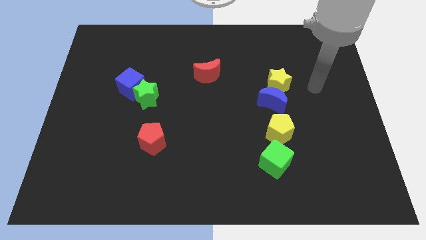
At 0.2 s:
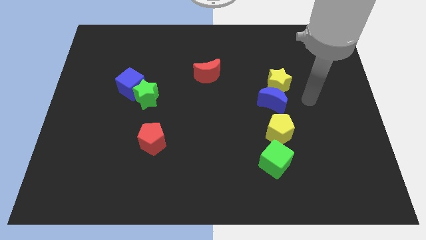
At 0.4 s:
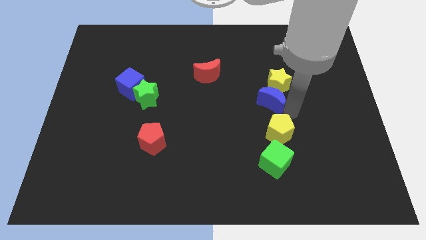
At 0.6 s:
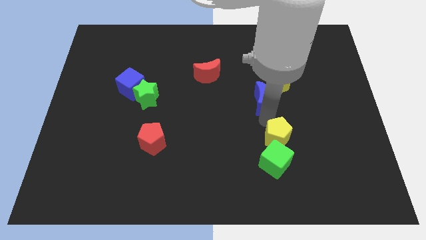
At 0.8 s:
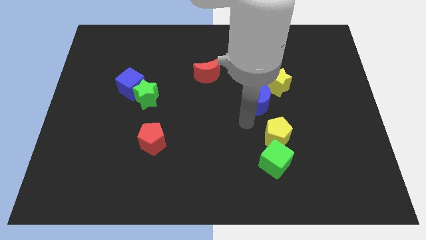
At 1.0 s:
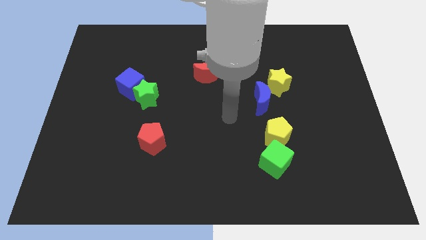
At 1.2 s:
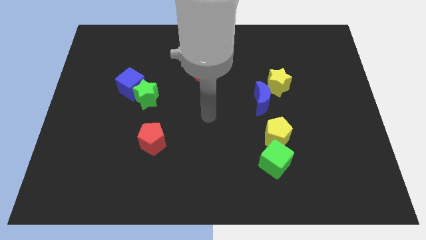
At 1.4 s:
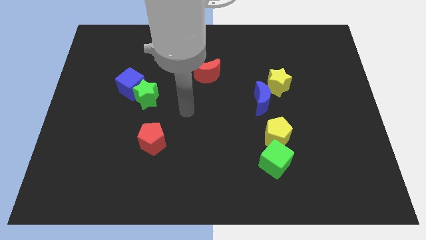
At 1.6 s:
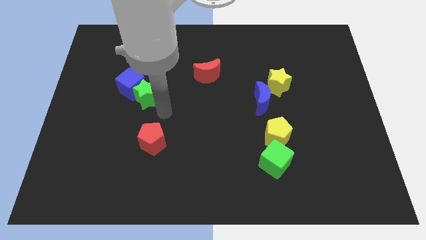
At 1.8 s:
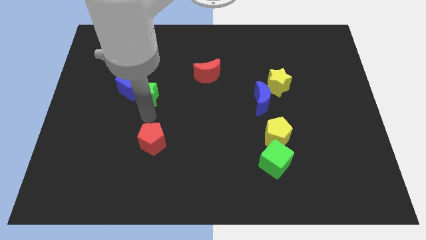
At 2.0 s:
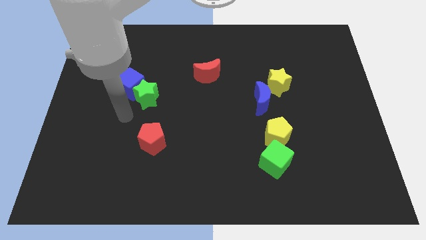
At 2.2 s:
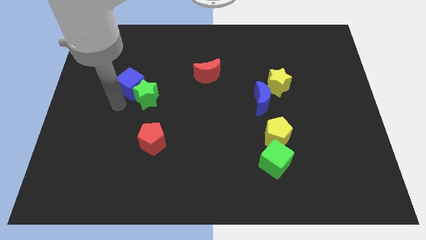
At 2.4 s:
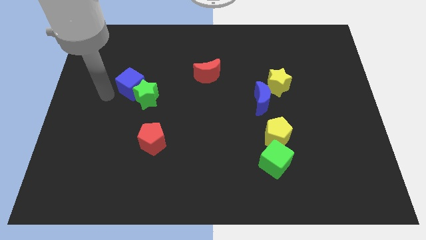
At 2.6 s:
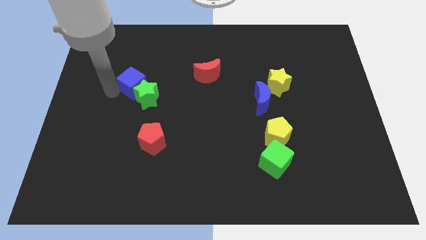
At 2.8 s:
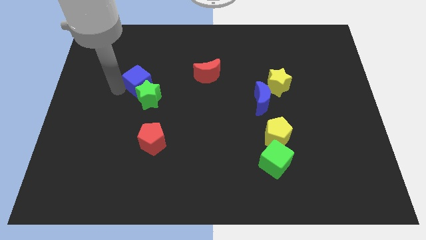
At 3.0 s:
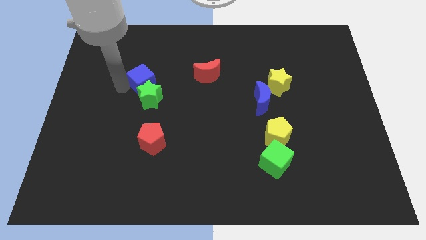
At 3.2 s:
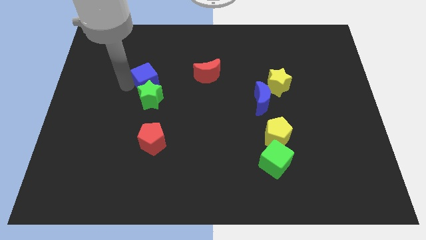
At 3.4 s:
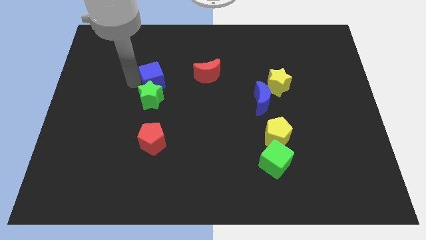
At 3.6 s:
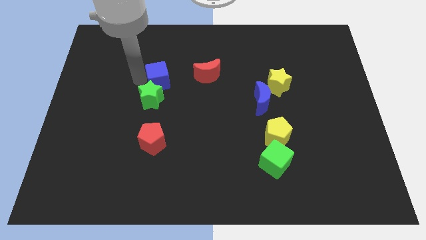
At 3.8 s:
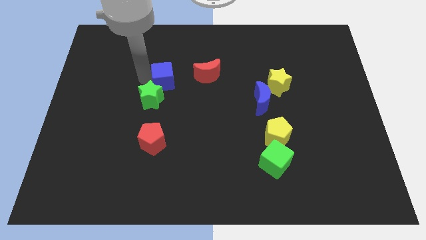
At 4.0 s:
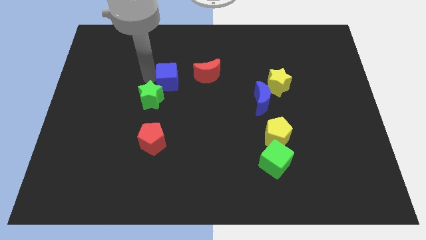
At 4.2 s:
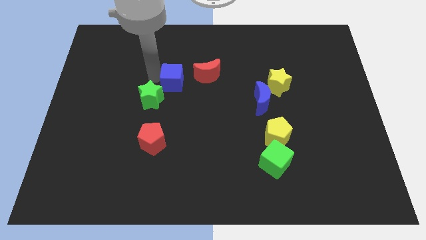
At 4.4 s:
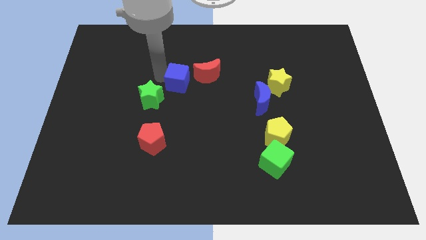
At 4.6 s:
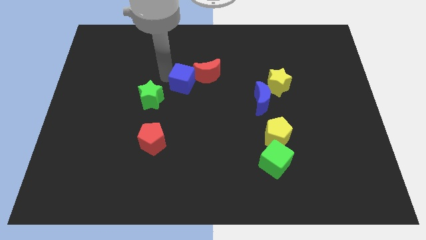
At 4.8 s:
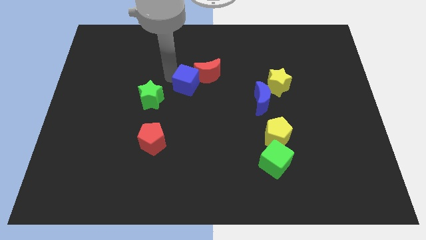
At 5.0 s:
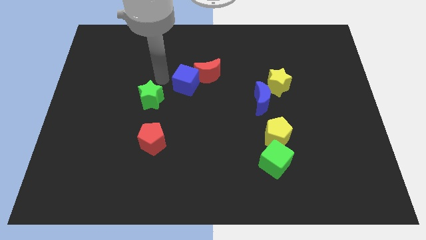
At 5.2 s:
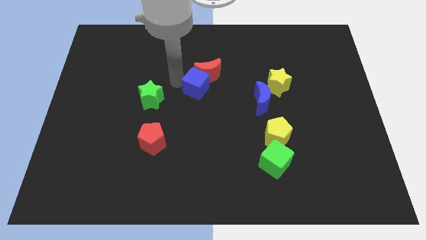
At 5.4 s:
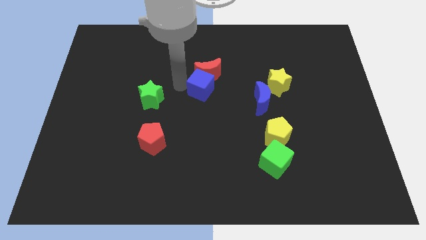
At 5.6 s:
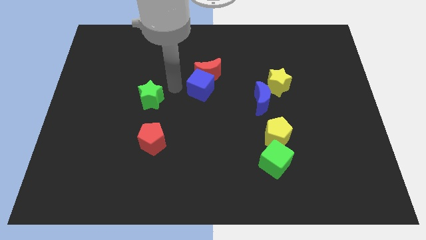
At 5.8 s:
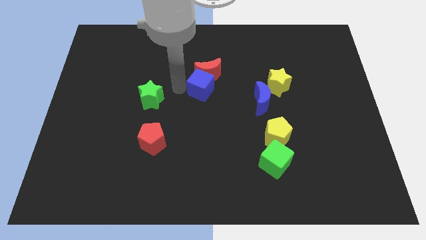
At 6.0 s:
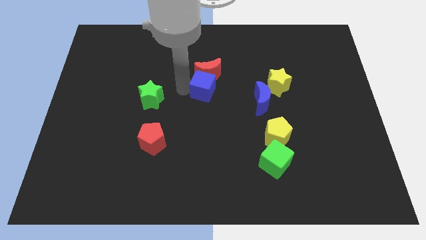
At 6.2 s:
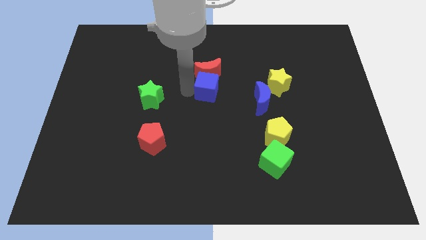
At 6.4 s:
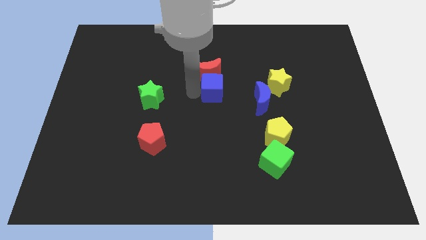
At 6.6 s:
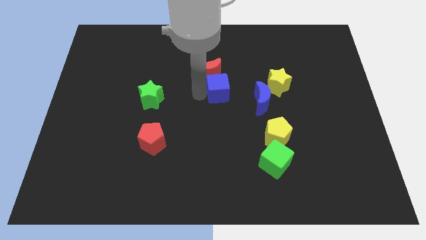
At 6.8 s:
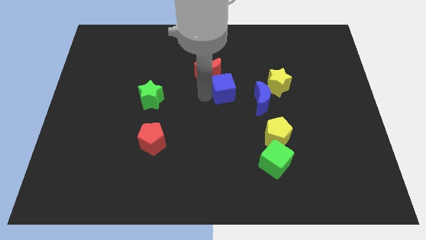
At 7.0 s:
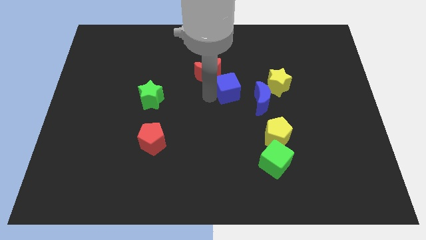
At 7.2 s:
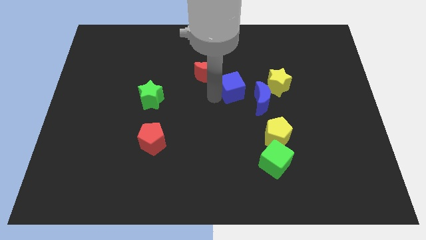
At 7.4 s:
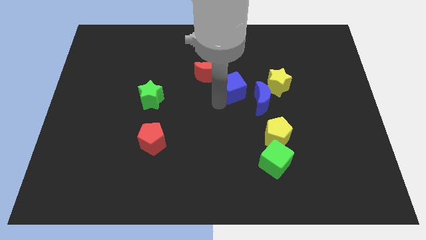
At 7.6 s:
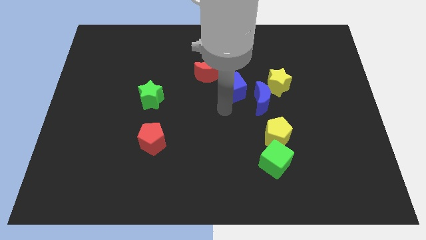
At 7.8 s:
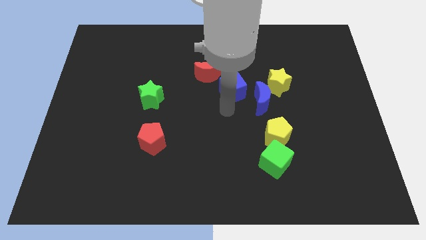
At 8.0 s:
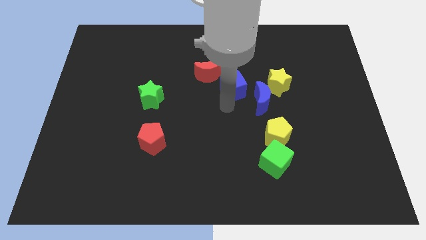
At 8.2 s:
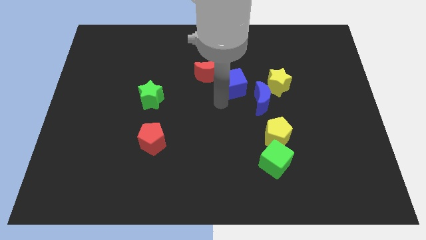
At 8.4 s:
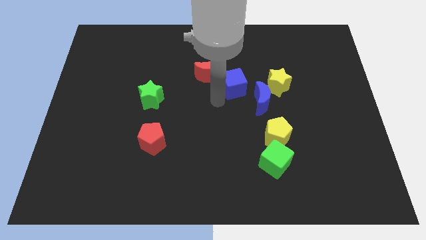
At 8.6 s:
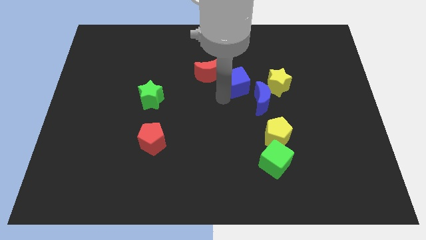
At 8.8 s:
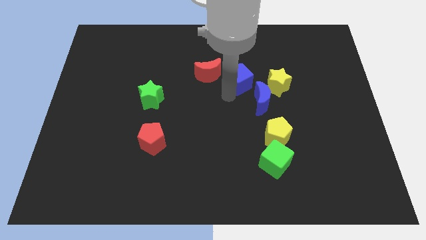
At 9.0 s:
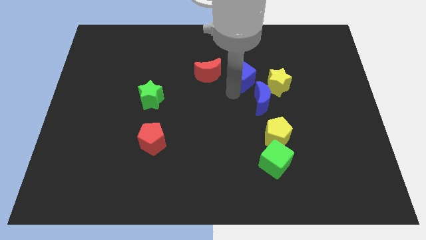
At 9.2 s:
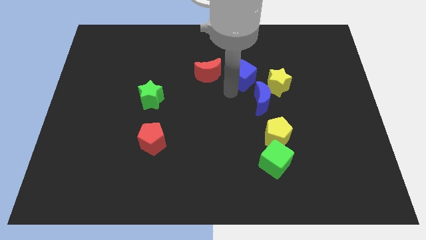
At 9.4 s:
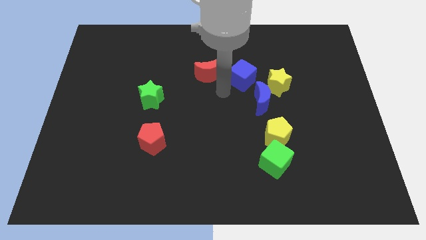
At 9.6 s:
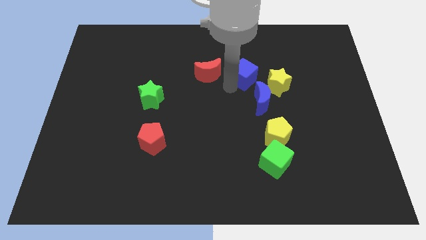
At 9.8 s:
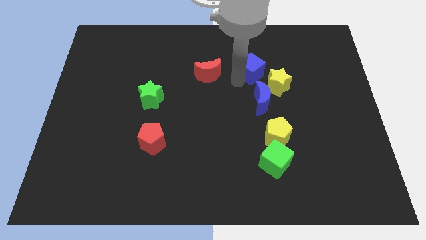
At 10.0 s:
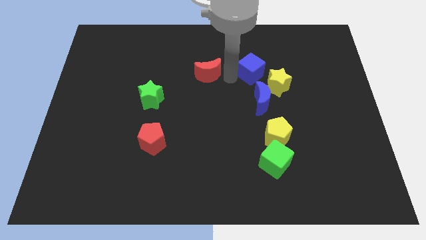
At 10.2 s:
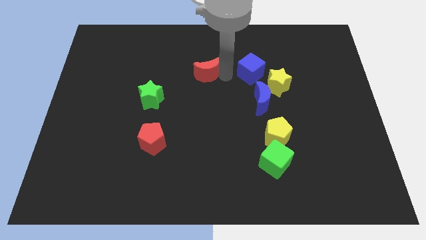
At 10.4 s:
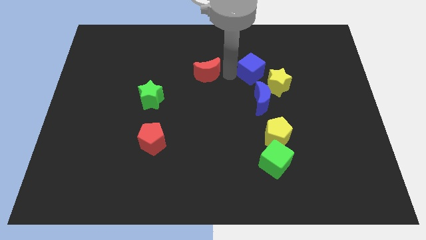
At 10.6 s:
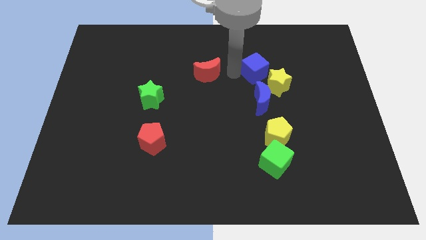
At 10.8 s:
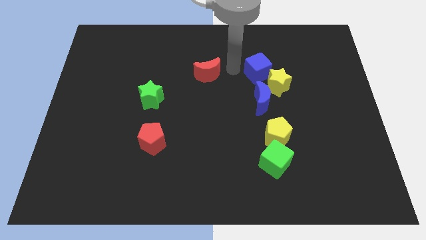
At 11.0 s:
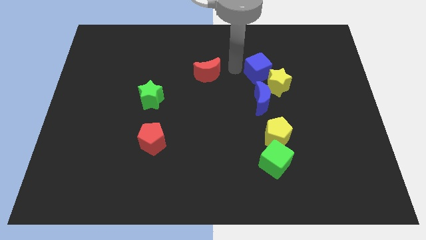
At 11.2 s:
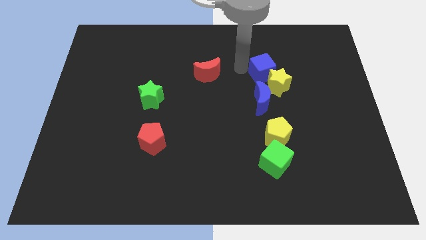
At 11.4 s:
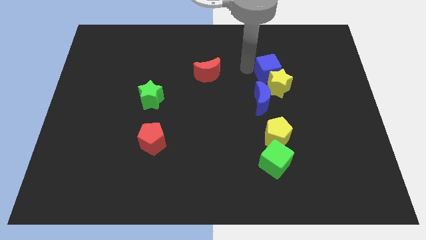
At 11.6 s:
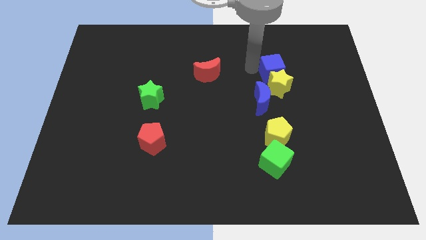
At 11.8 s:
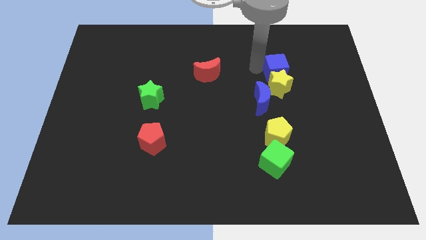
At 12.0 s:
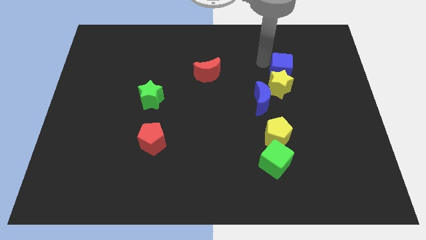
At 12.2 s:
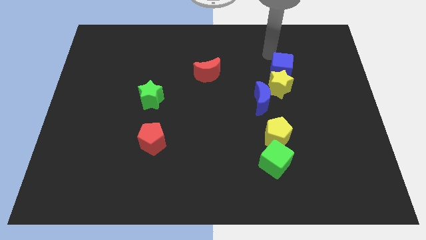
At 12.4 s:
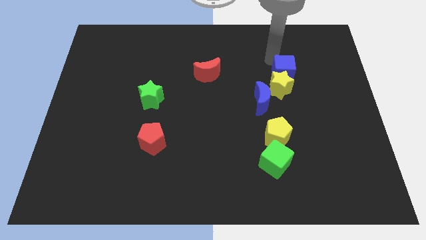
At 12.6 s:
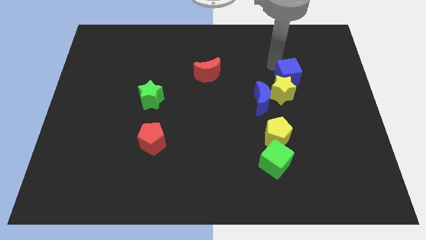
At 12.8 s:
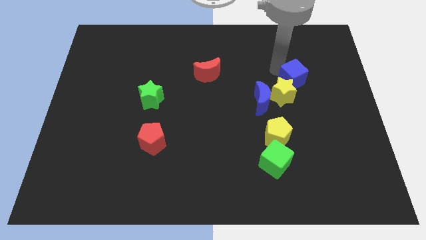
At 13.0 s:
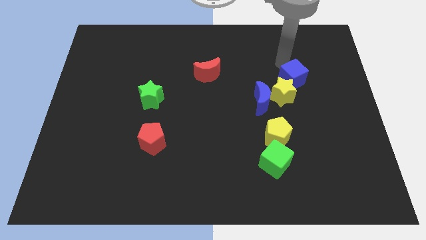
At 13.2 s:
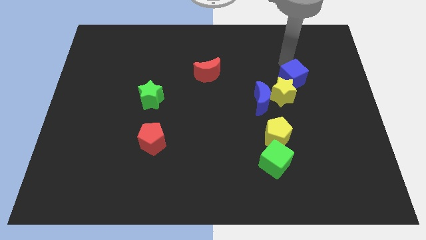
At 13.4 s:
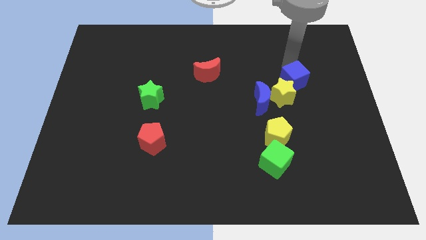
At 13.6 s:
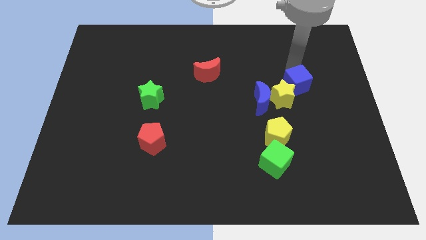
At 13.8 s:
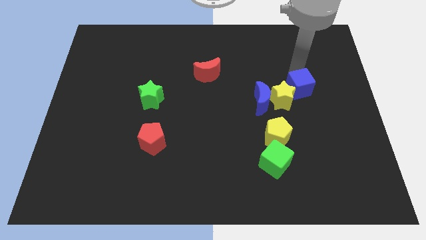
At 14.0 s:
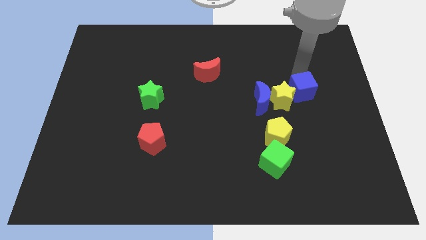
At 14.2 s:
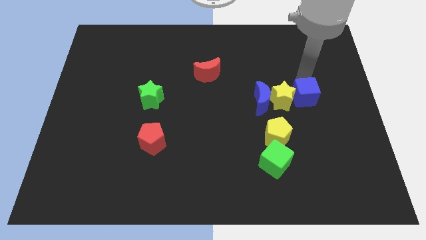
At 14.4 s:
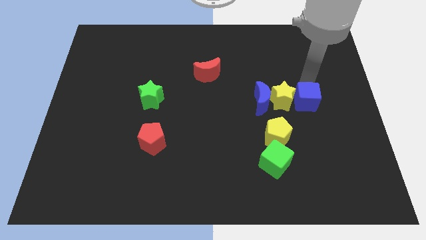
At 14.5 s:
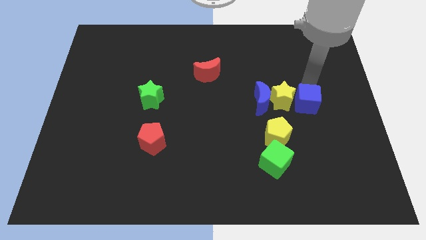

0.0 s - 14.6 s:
move the blue cube to the top right of the yellow pentagon
